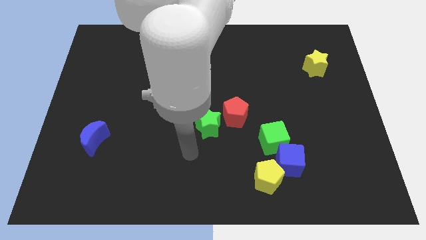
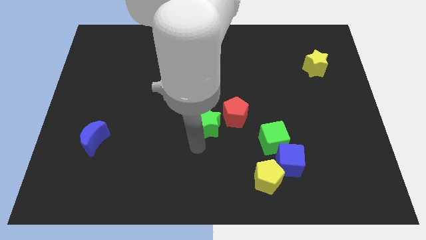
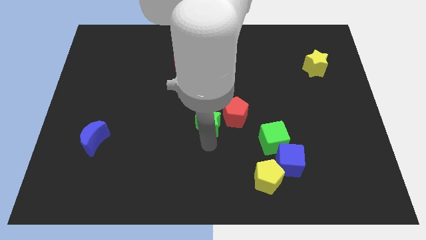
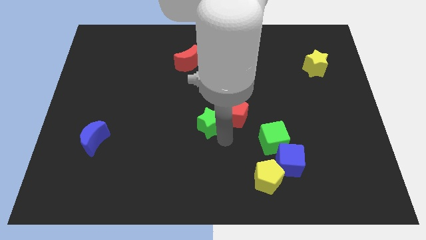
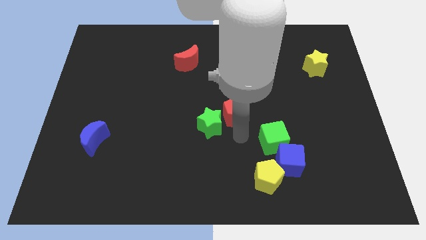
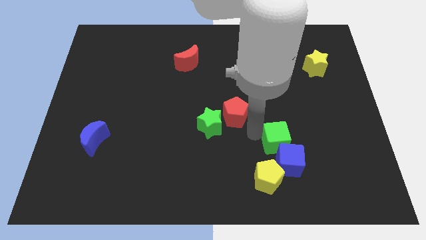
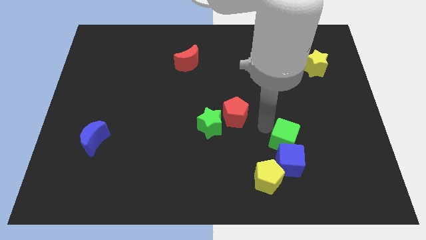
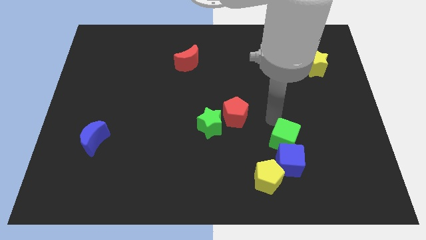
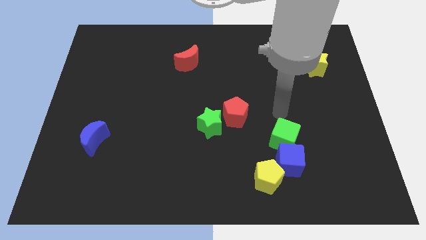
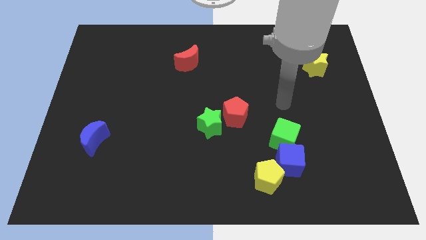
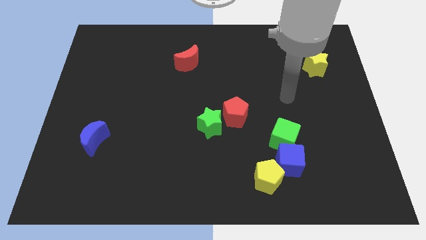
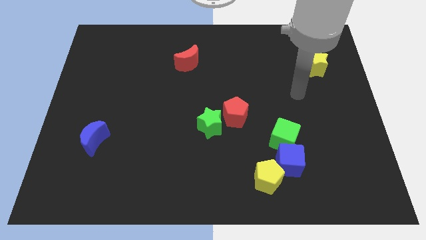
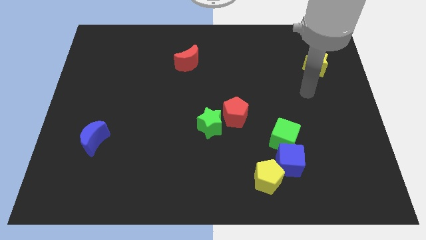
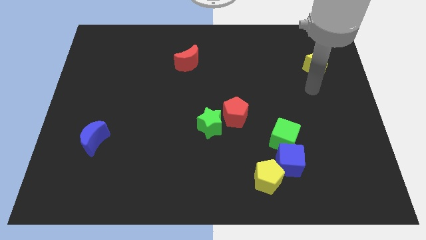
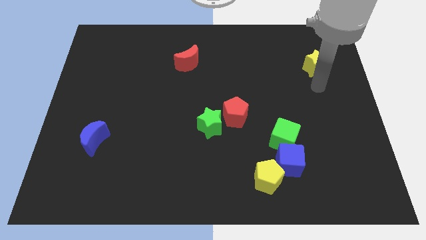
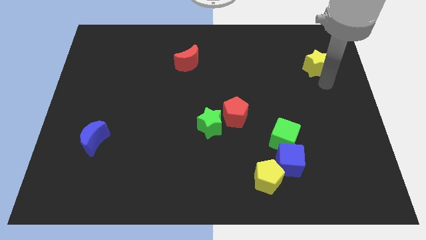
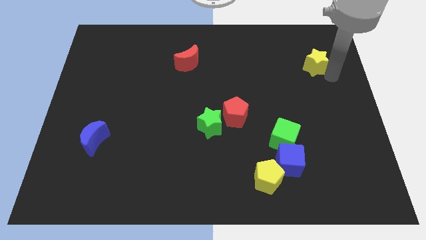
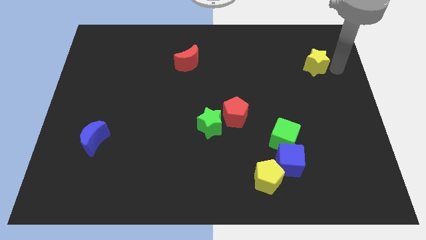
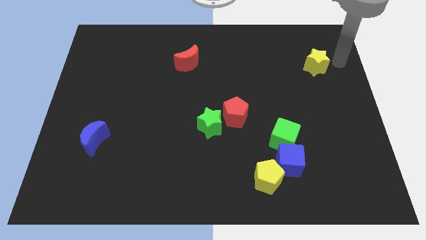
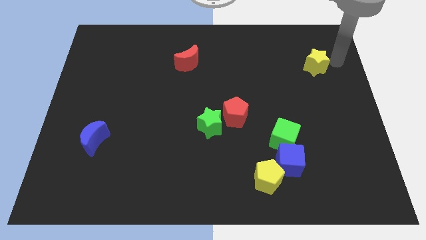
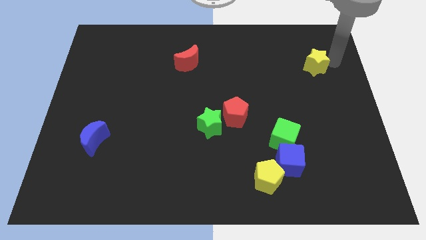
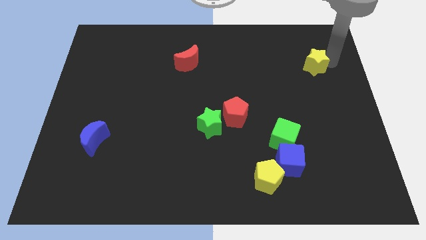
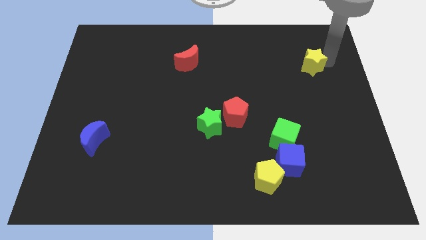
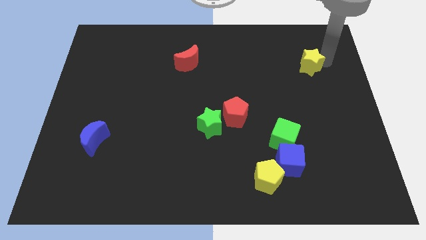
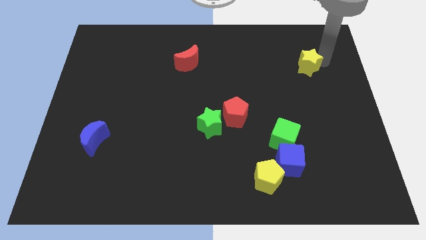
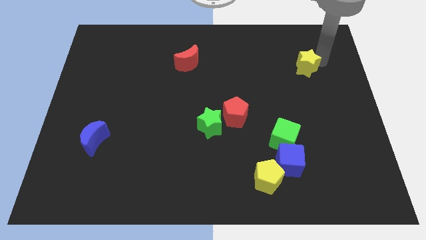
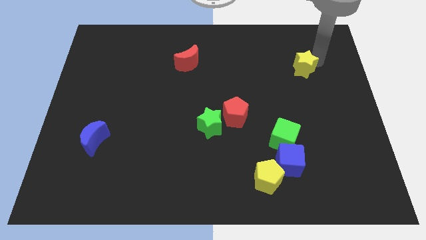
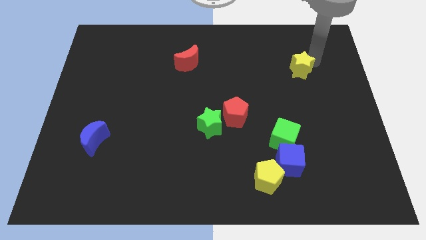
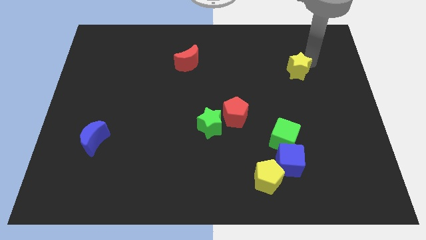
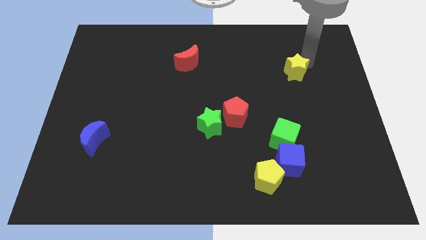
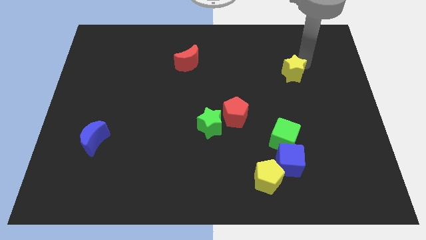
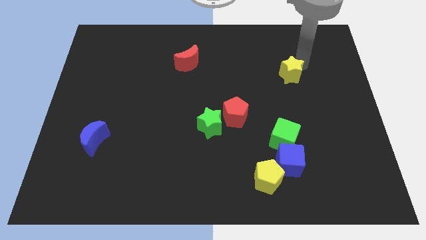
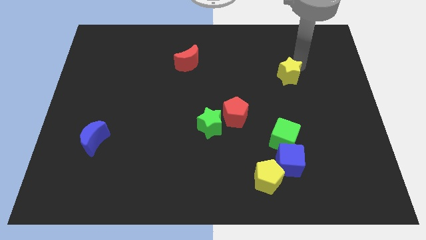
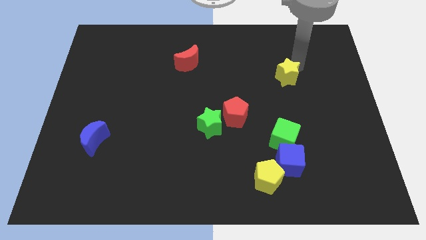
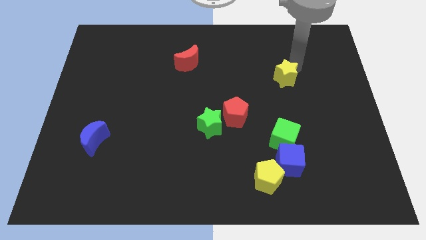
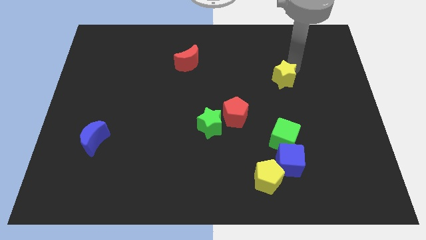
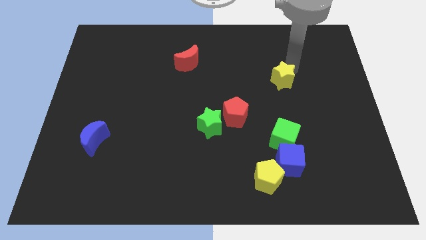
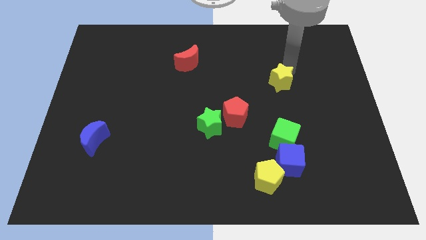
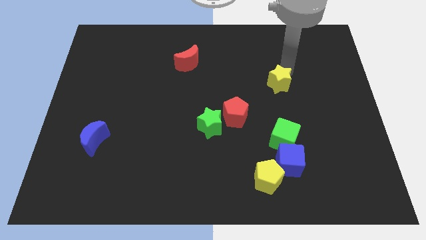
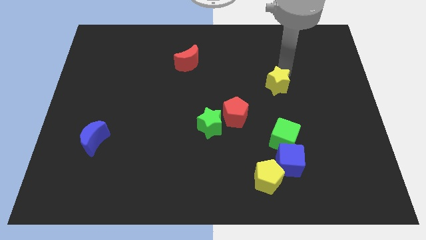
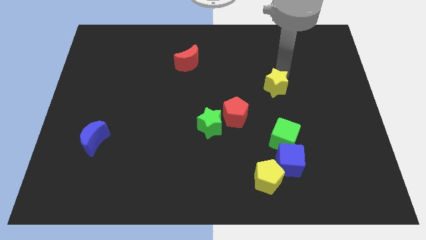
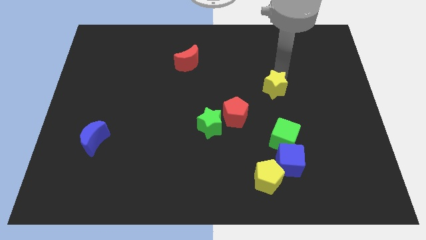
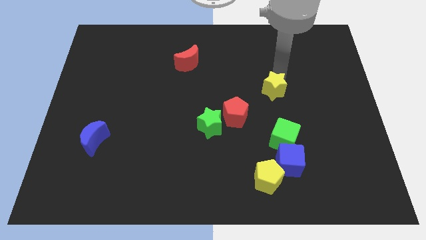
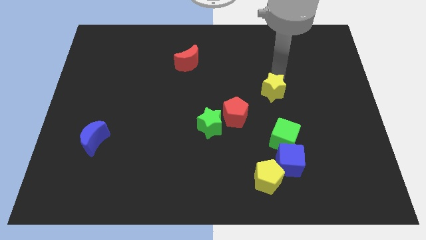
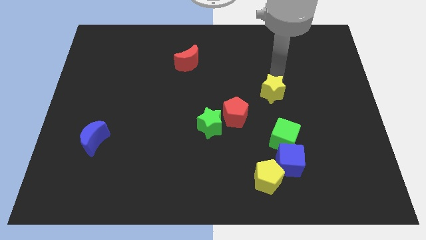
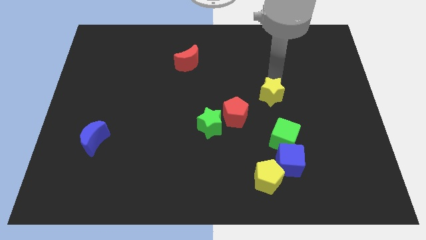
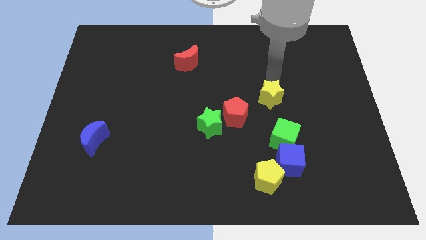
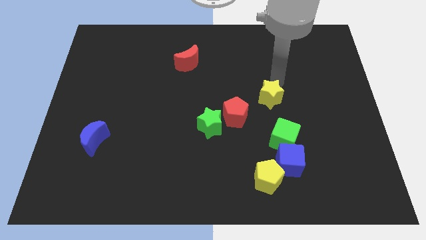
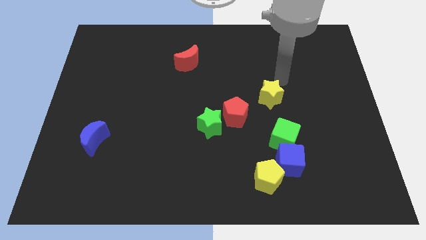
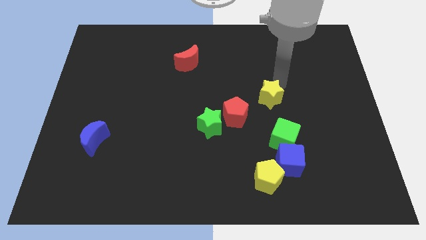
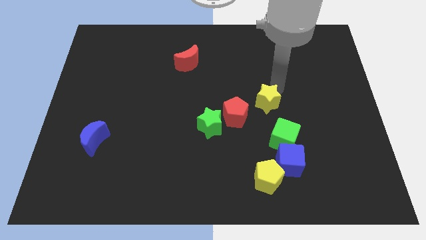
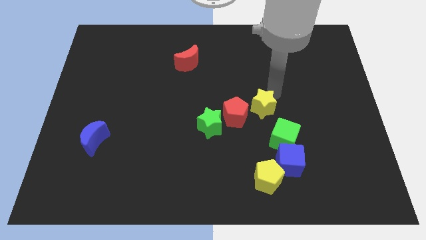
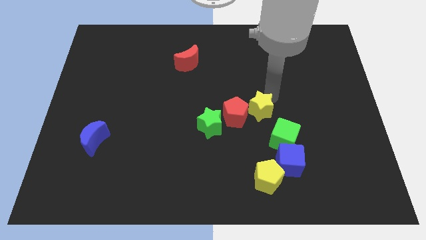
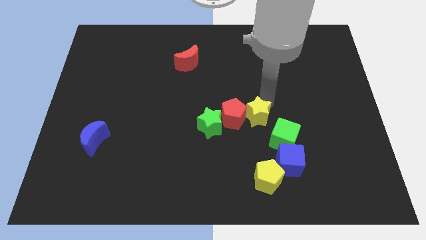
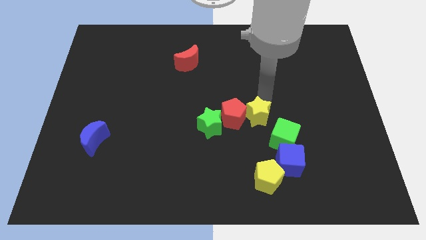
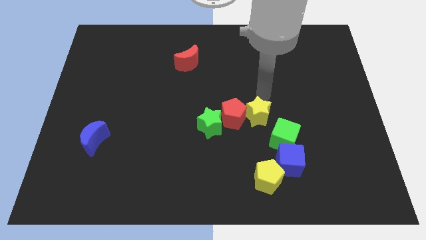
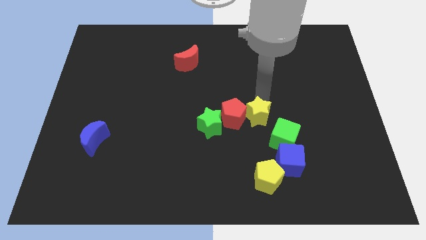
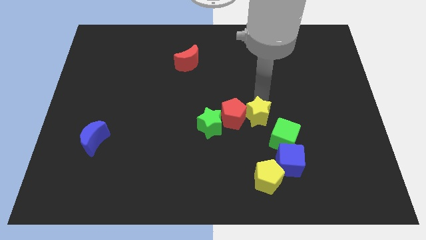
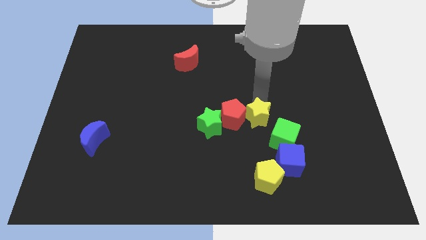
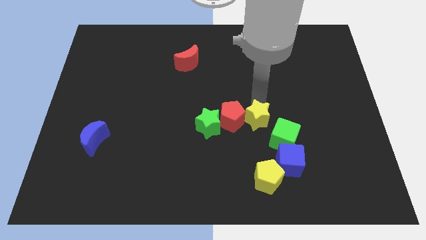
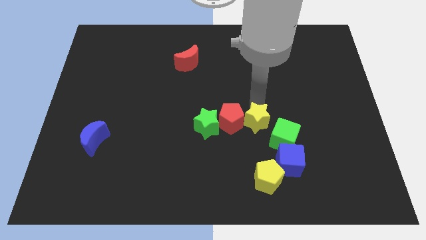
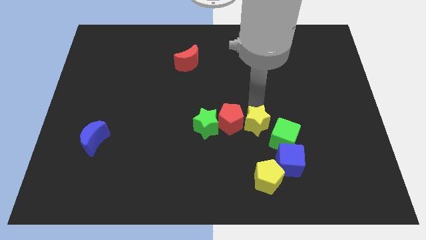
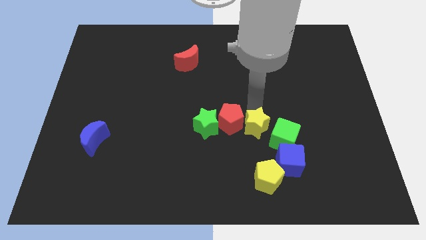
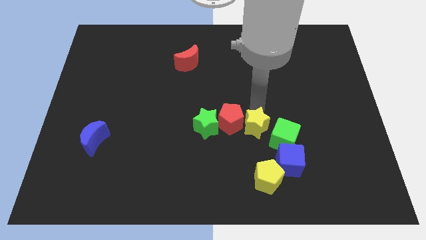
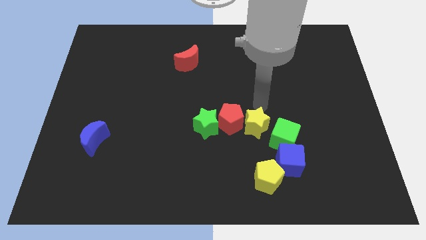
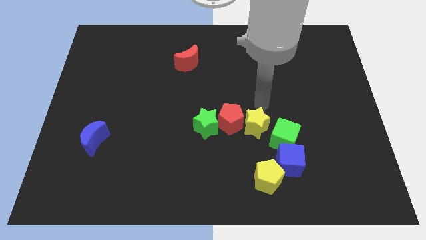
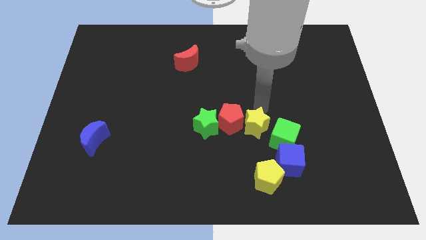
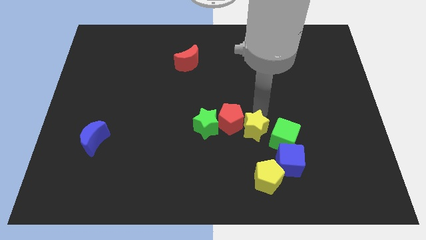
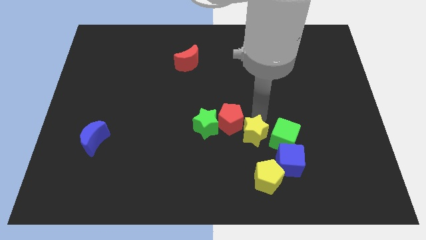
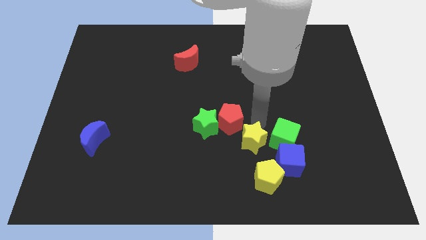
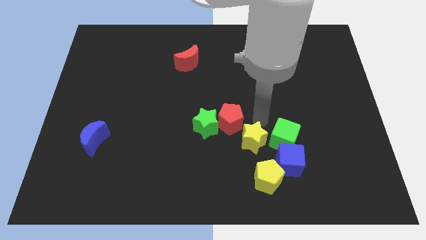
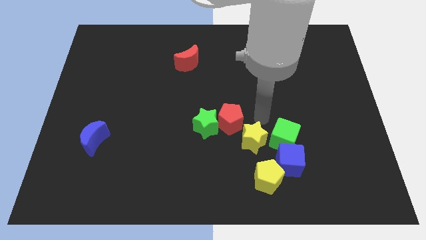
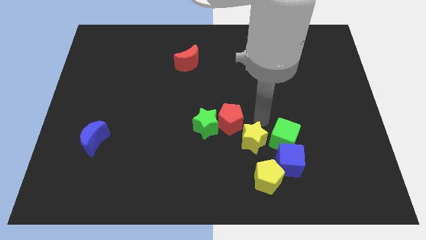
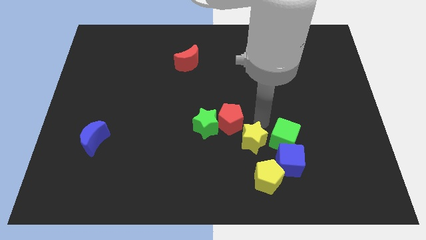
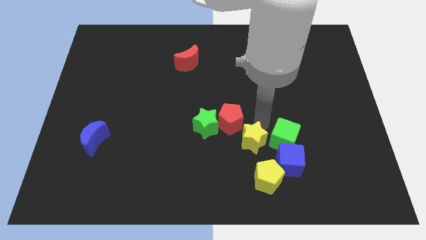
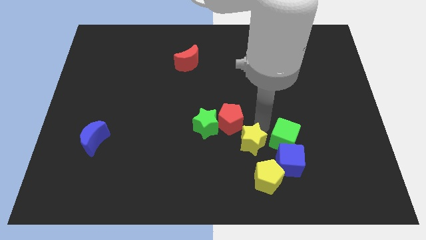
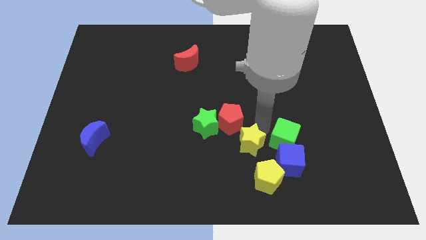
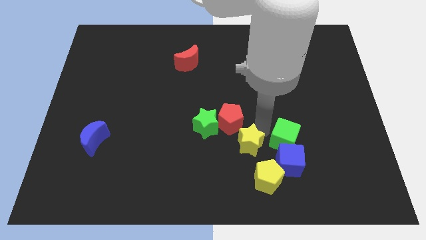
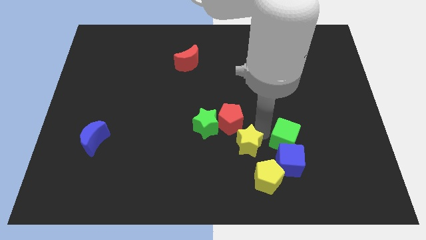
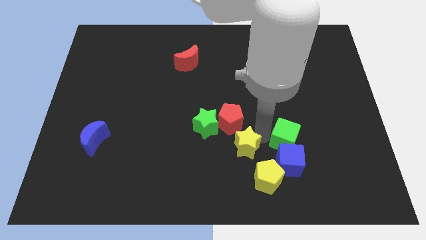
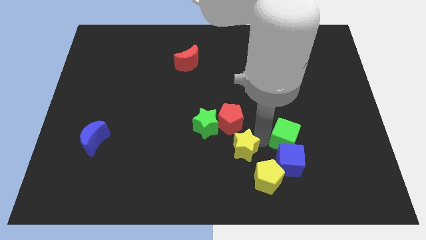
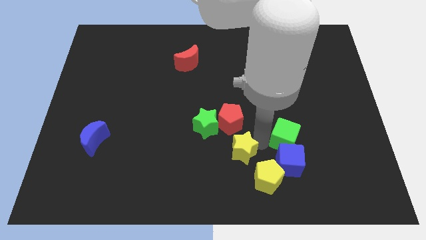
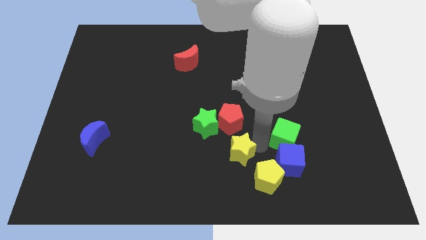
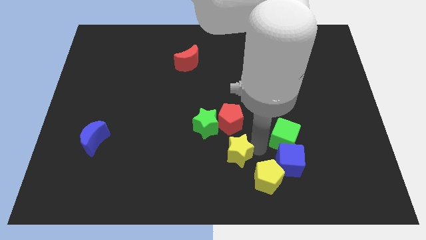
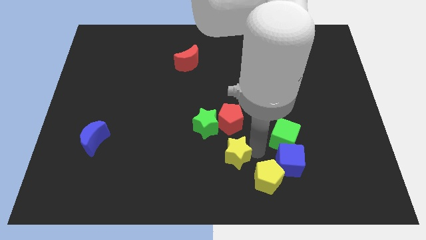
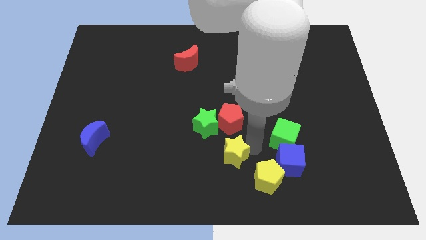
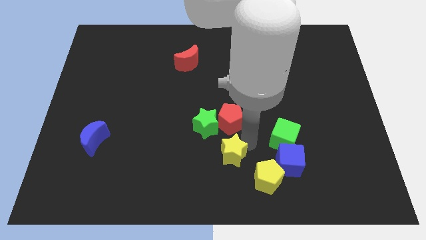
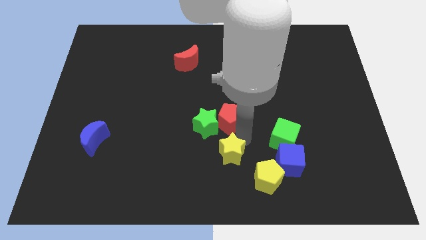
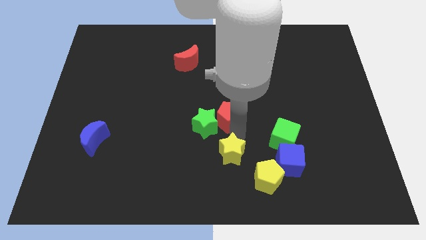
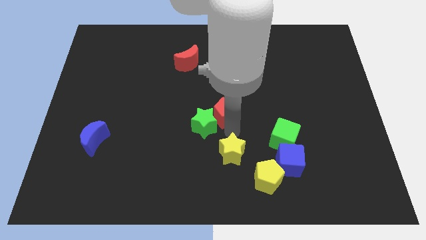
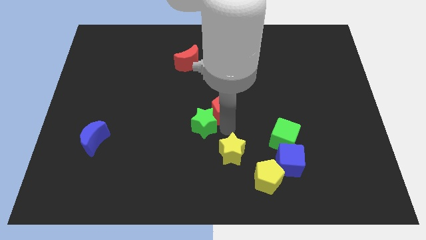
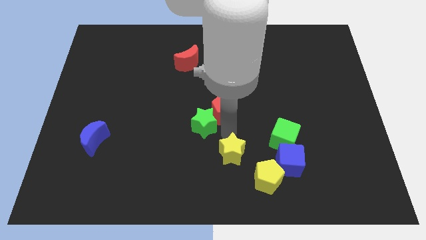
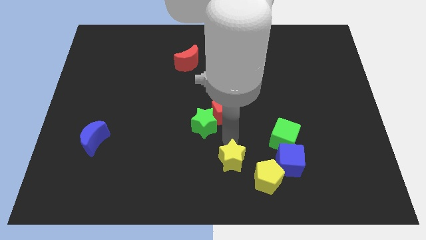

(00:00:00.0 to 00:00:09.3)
move the yellow star to the bottom side
